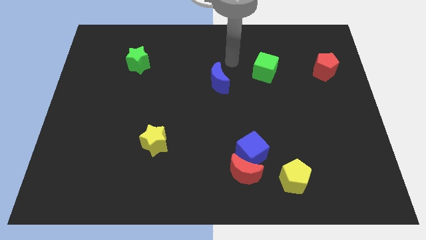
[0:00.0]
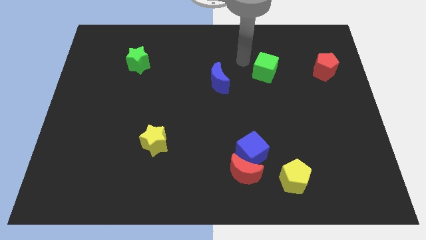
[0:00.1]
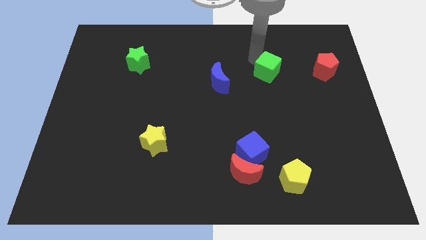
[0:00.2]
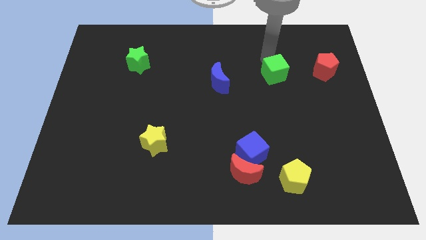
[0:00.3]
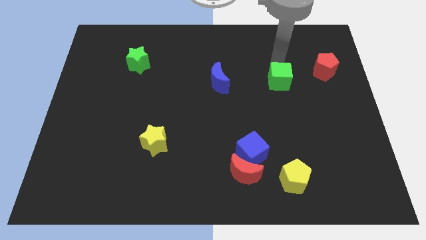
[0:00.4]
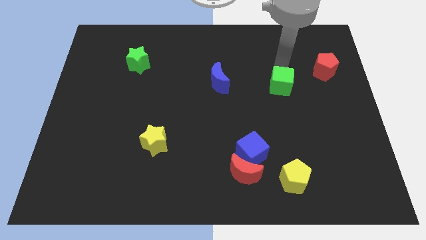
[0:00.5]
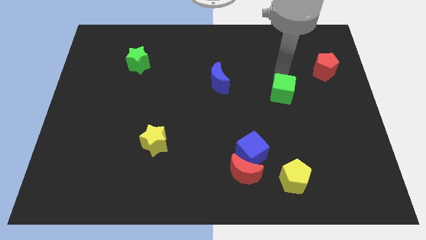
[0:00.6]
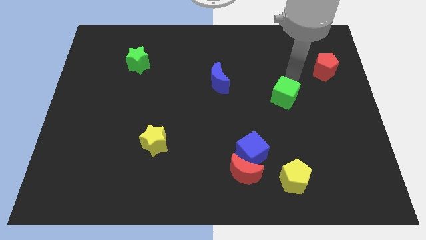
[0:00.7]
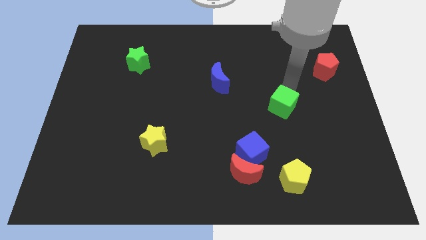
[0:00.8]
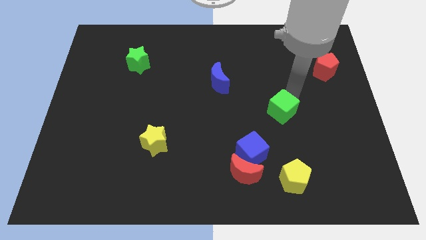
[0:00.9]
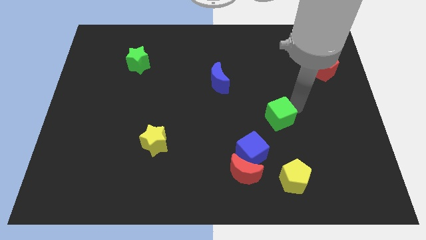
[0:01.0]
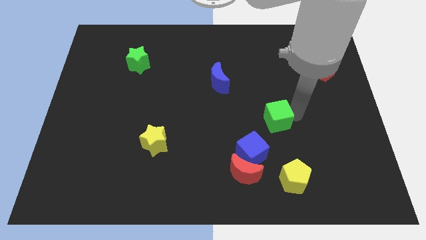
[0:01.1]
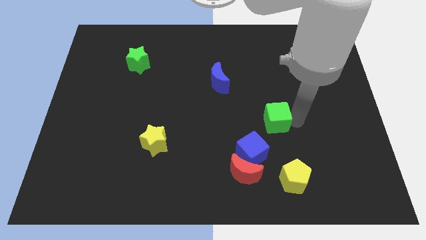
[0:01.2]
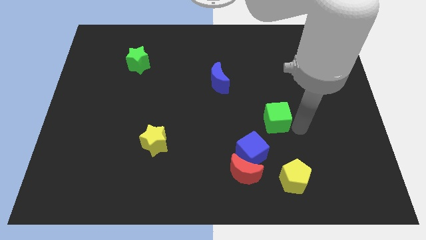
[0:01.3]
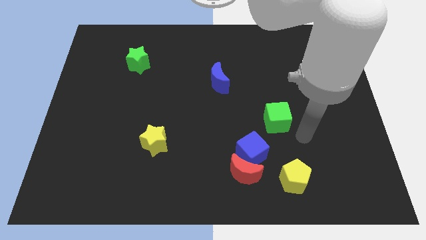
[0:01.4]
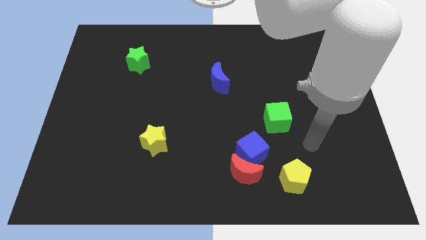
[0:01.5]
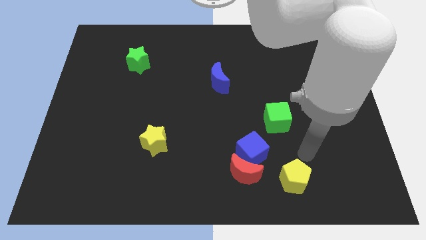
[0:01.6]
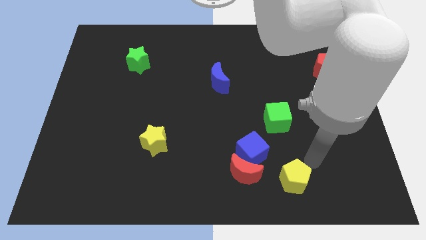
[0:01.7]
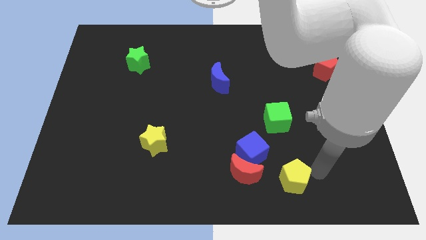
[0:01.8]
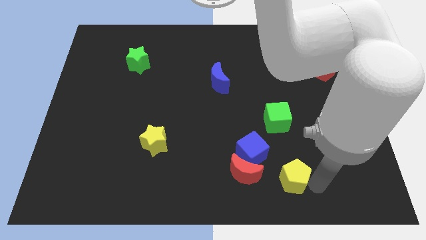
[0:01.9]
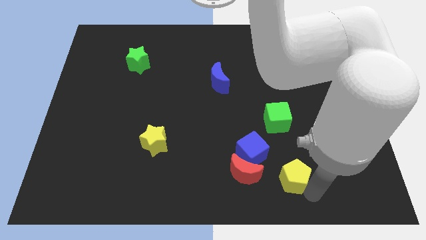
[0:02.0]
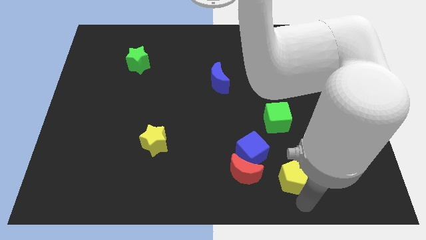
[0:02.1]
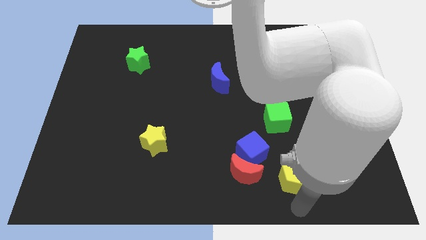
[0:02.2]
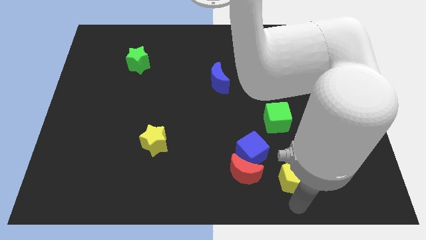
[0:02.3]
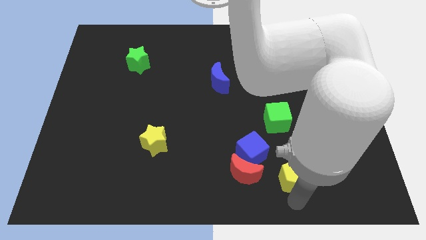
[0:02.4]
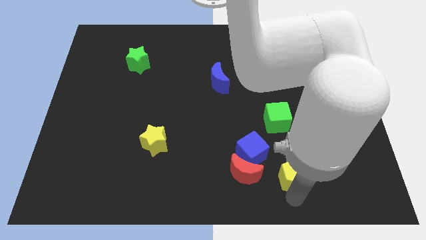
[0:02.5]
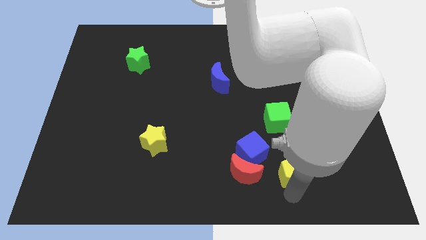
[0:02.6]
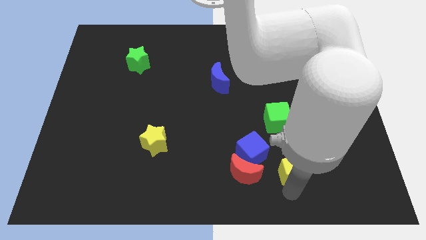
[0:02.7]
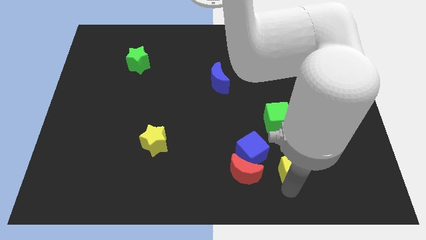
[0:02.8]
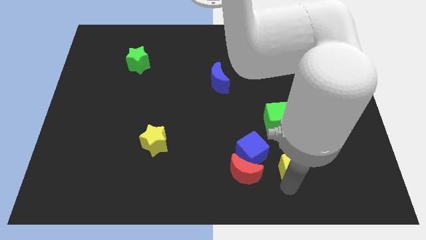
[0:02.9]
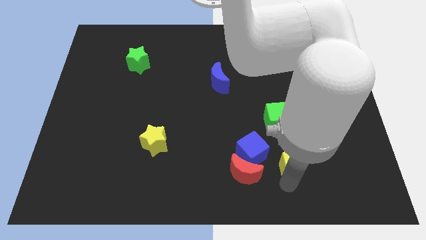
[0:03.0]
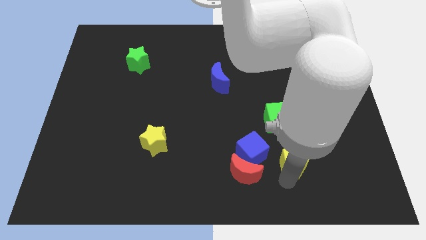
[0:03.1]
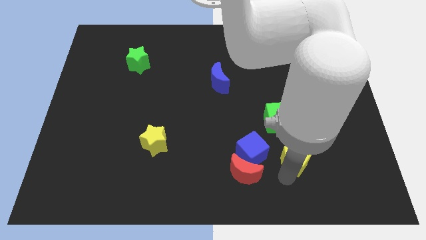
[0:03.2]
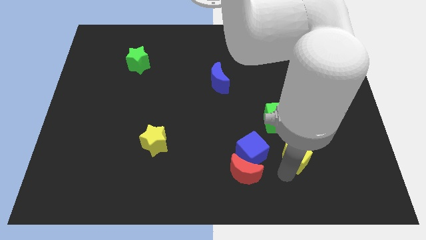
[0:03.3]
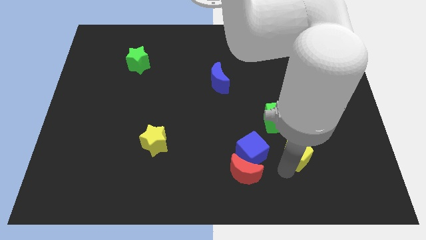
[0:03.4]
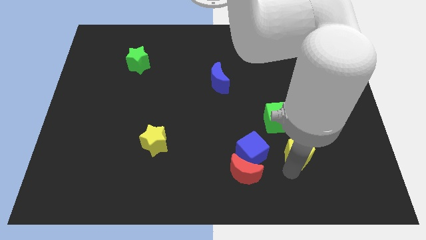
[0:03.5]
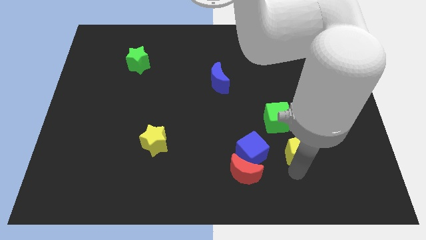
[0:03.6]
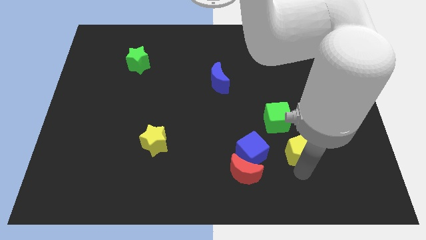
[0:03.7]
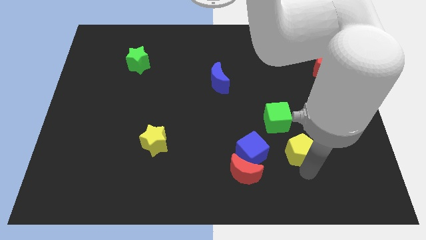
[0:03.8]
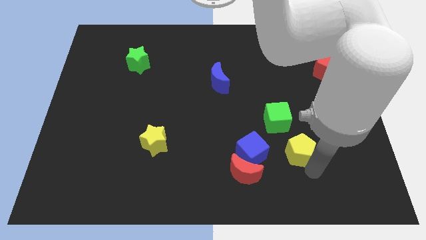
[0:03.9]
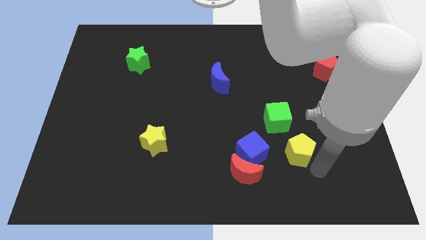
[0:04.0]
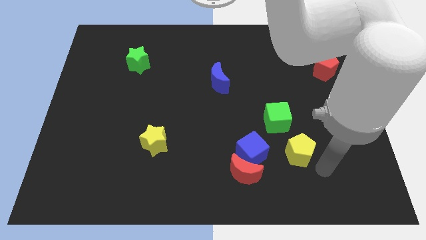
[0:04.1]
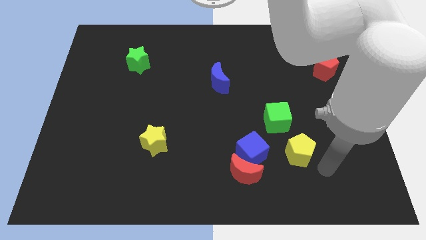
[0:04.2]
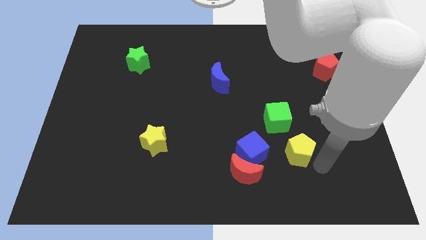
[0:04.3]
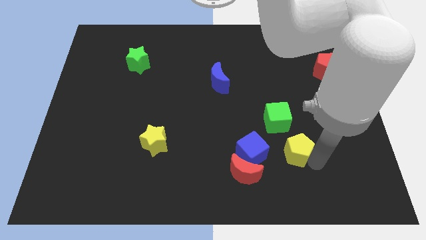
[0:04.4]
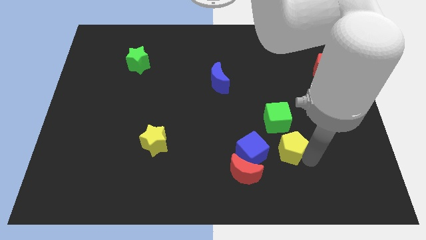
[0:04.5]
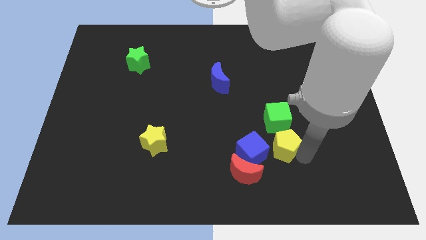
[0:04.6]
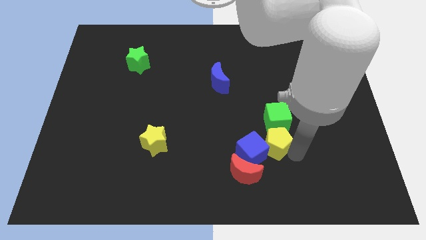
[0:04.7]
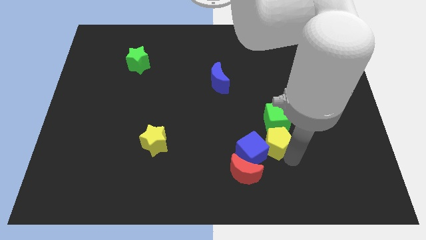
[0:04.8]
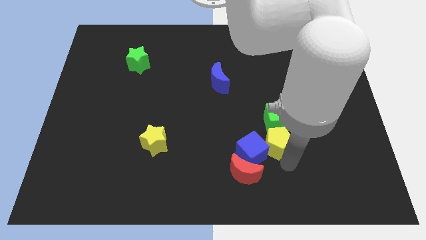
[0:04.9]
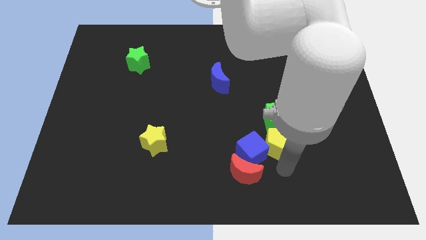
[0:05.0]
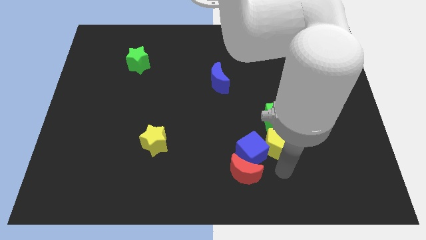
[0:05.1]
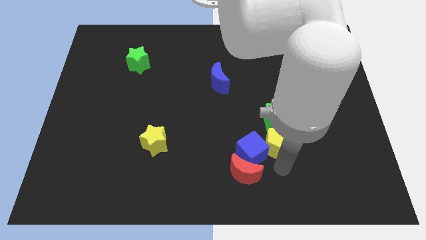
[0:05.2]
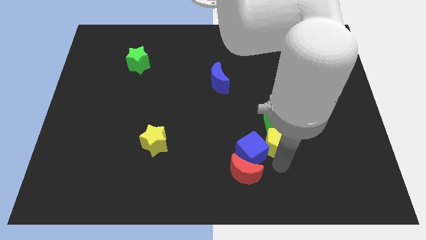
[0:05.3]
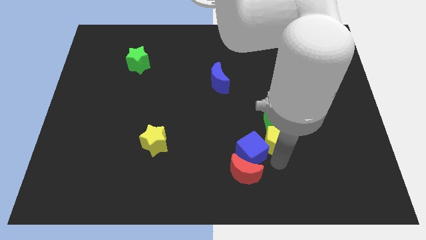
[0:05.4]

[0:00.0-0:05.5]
slide the yellow pentagon close to the green cube
